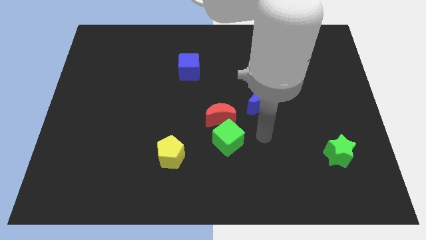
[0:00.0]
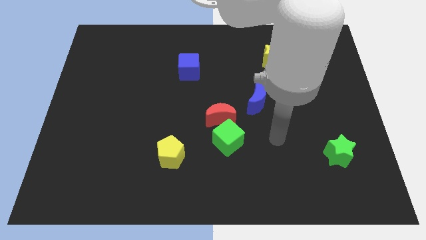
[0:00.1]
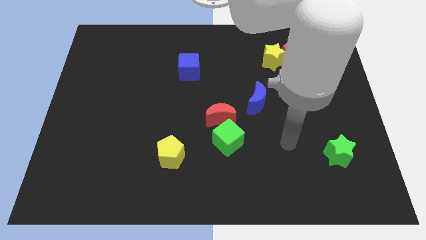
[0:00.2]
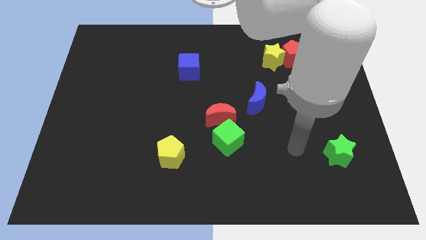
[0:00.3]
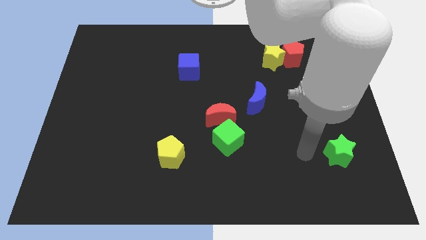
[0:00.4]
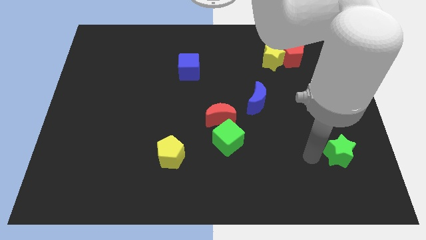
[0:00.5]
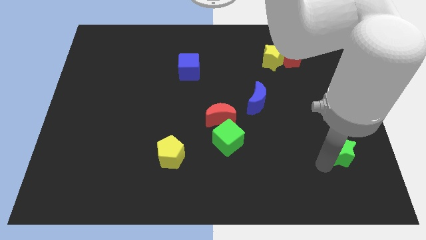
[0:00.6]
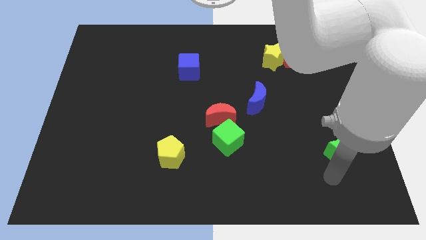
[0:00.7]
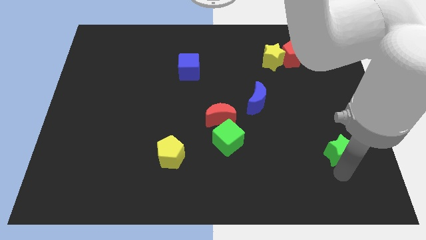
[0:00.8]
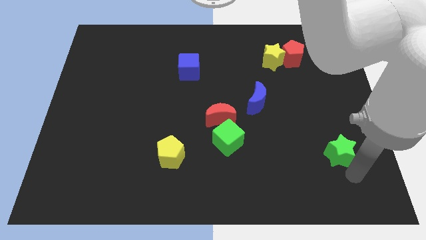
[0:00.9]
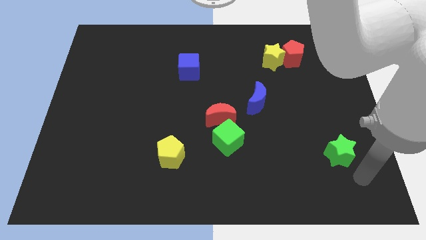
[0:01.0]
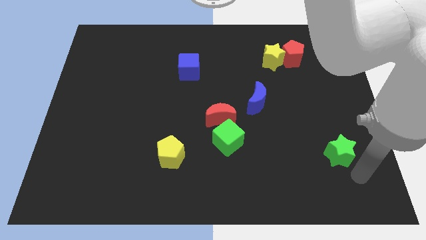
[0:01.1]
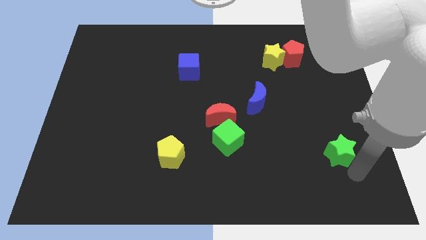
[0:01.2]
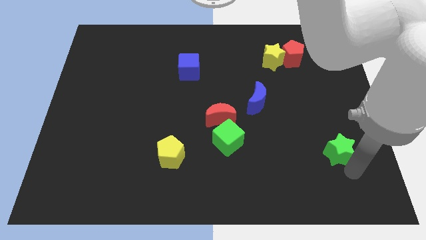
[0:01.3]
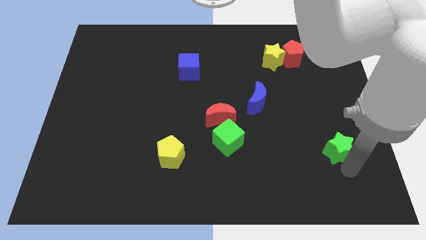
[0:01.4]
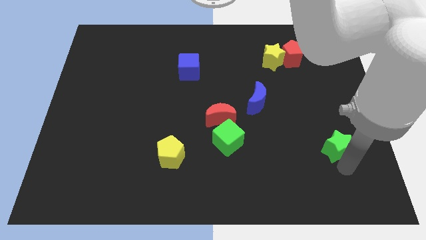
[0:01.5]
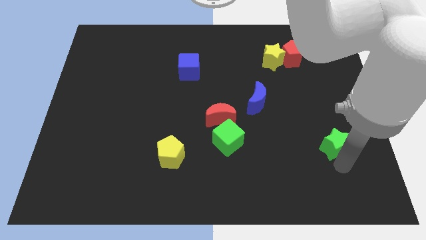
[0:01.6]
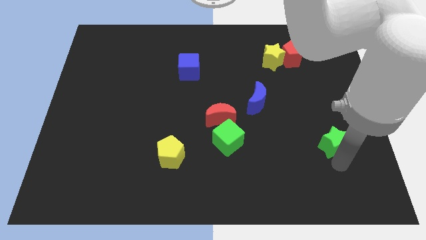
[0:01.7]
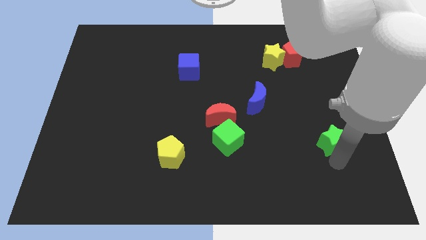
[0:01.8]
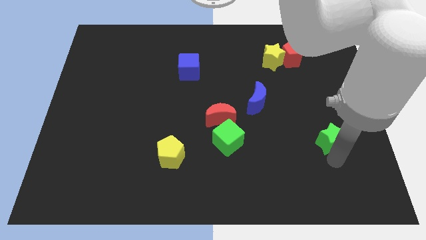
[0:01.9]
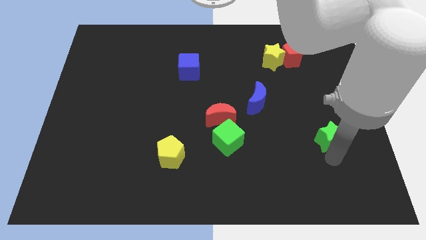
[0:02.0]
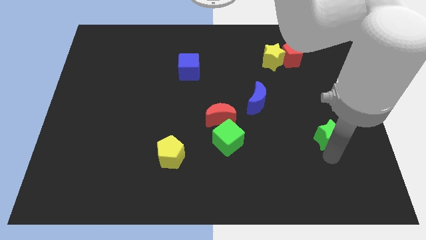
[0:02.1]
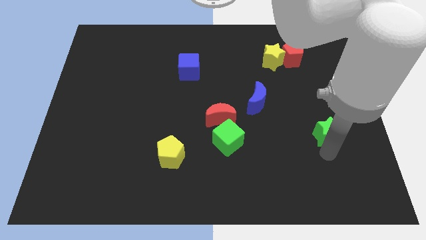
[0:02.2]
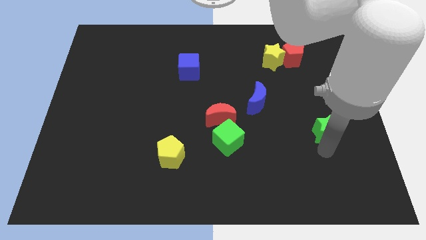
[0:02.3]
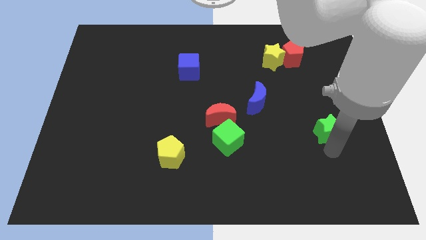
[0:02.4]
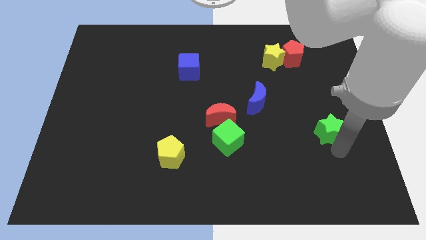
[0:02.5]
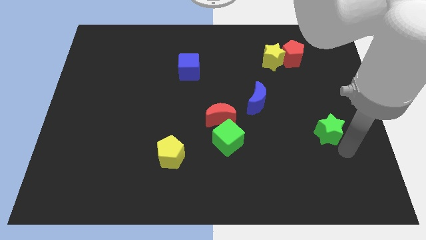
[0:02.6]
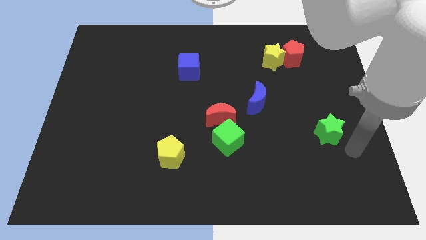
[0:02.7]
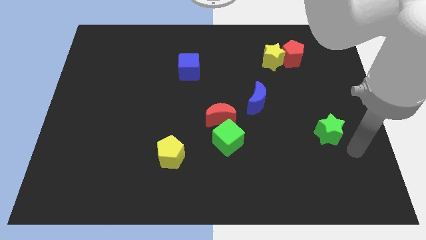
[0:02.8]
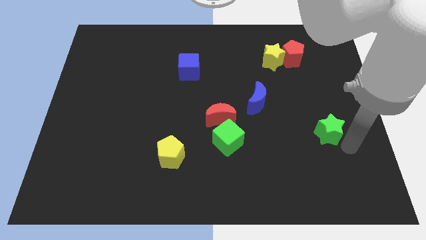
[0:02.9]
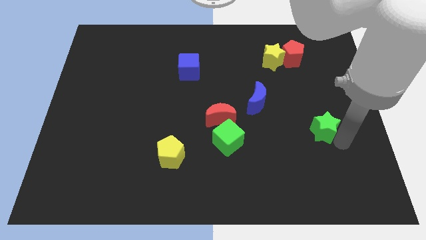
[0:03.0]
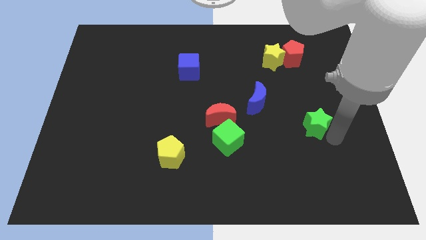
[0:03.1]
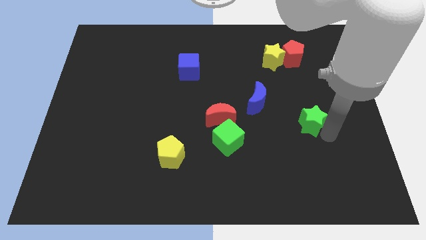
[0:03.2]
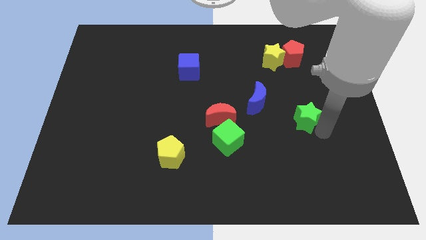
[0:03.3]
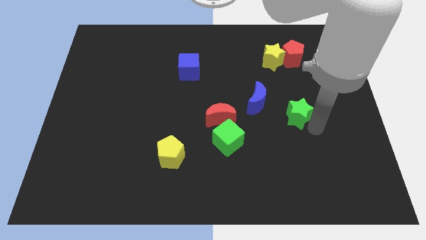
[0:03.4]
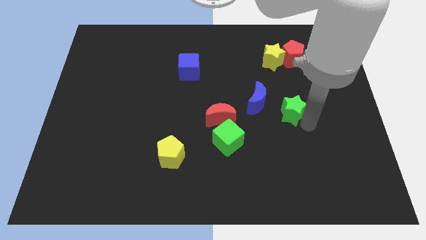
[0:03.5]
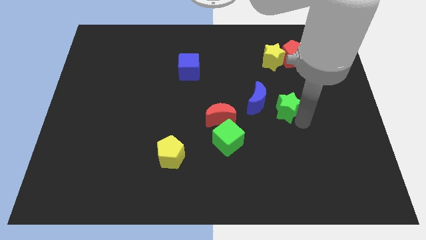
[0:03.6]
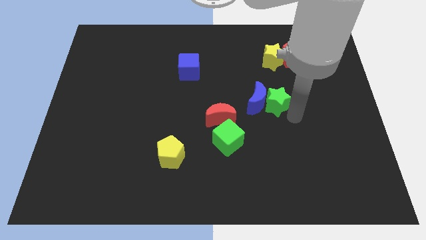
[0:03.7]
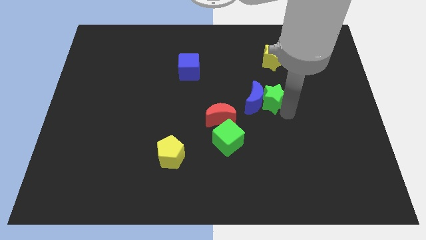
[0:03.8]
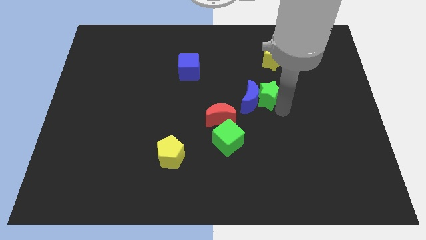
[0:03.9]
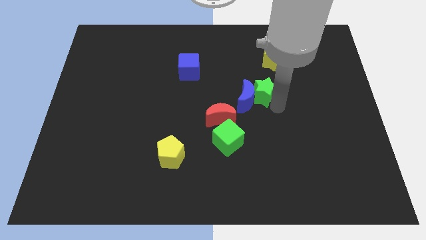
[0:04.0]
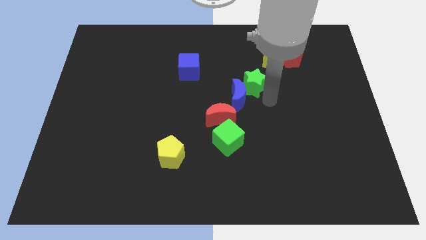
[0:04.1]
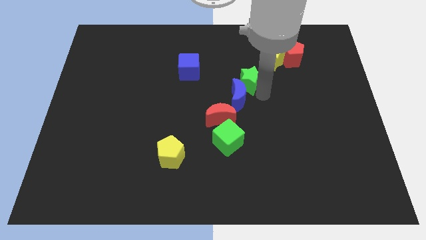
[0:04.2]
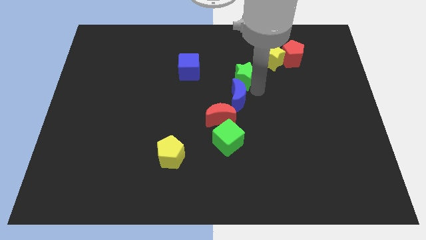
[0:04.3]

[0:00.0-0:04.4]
move the green star to the right of the blue cube

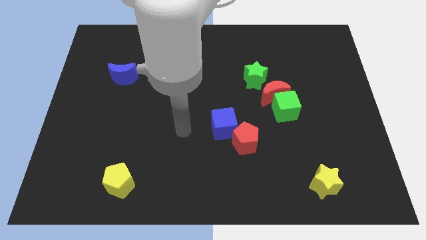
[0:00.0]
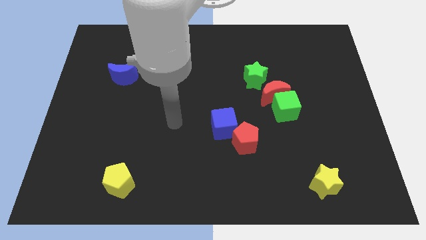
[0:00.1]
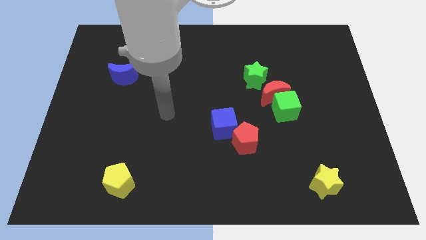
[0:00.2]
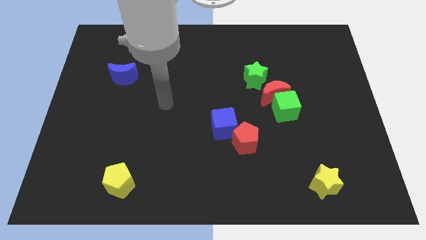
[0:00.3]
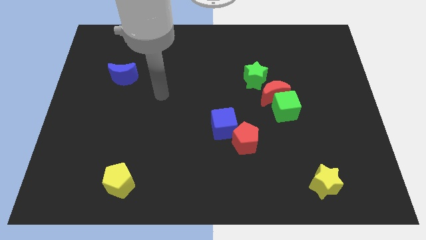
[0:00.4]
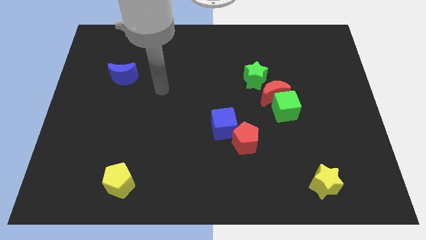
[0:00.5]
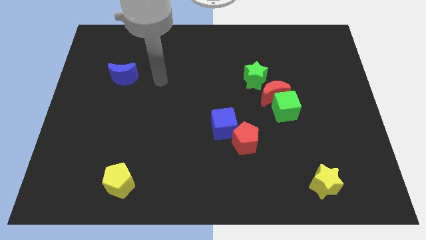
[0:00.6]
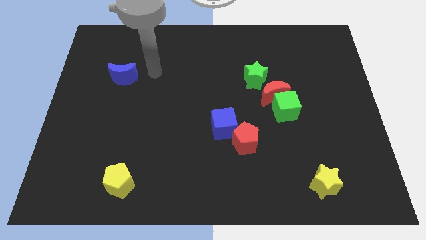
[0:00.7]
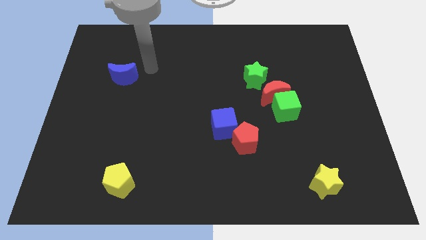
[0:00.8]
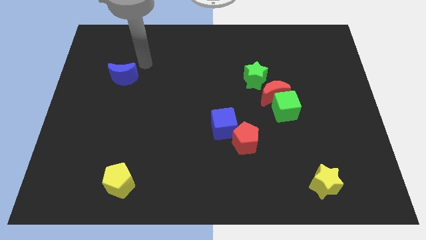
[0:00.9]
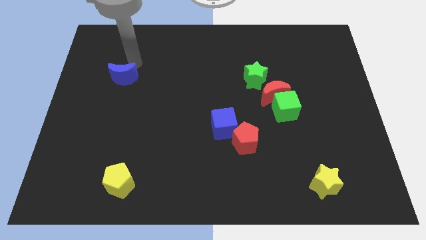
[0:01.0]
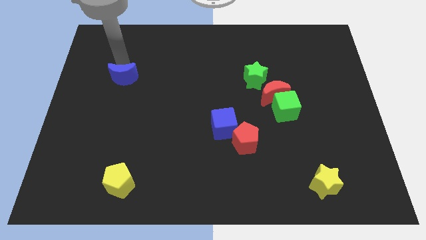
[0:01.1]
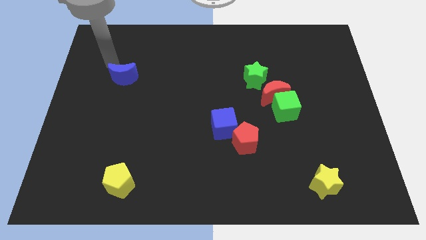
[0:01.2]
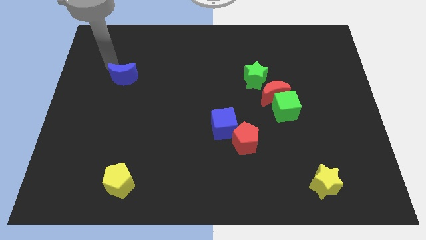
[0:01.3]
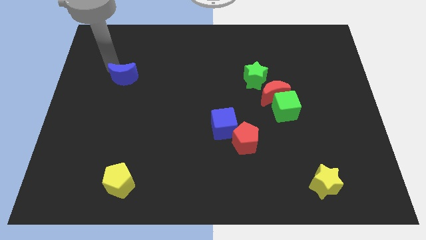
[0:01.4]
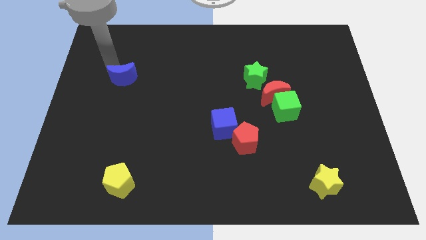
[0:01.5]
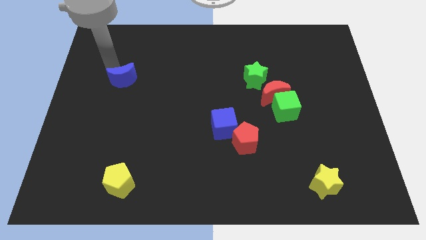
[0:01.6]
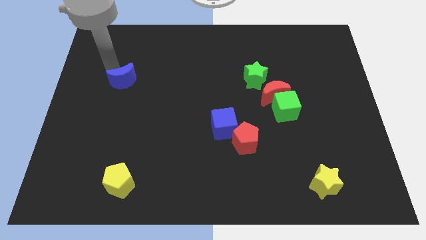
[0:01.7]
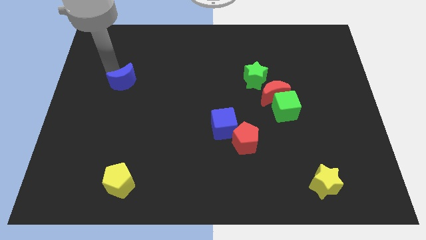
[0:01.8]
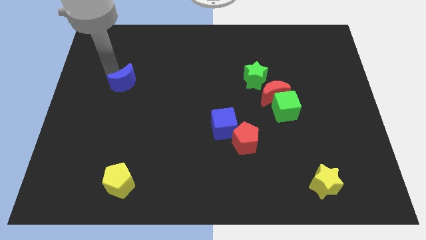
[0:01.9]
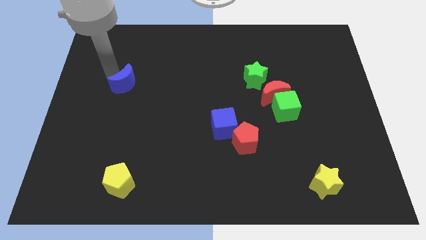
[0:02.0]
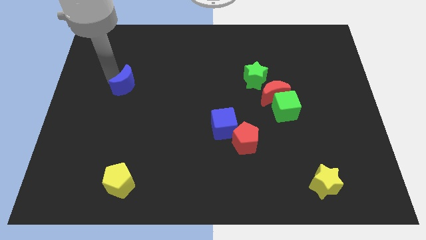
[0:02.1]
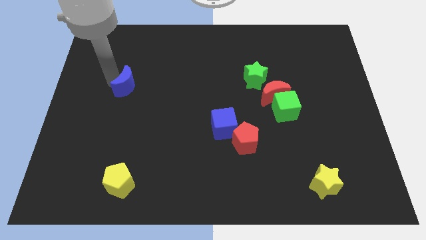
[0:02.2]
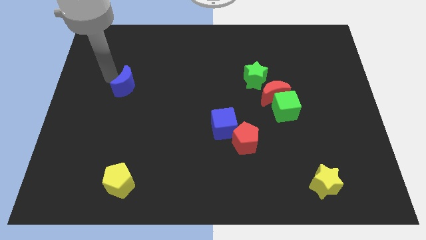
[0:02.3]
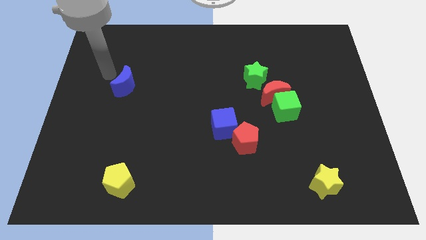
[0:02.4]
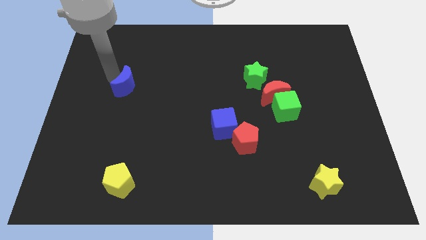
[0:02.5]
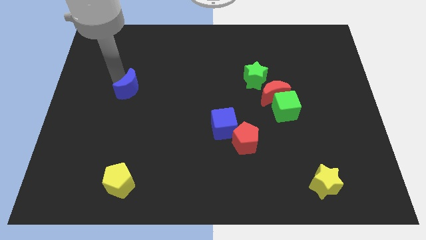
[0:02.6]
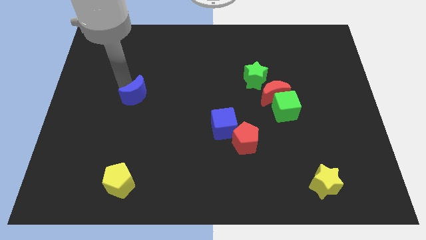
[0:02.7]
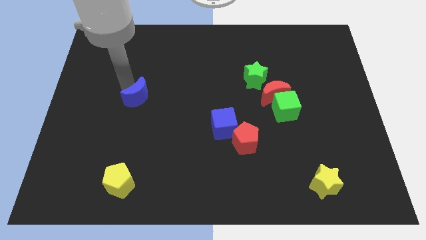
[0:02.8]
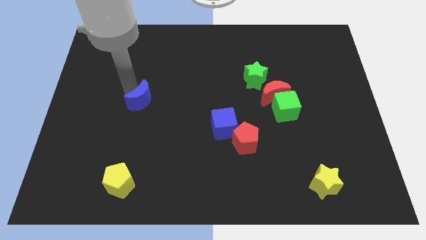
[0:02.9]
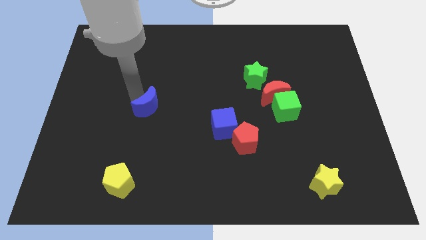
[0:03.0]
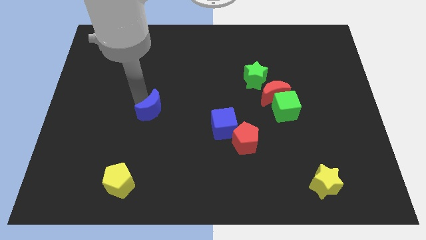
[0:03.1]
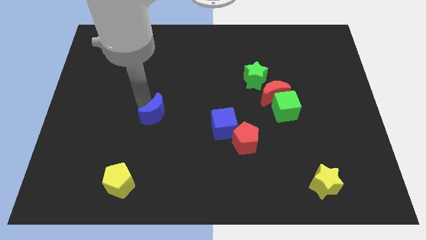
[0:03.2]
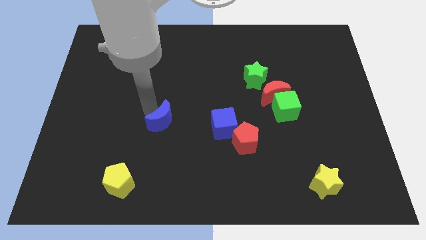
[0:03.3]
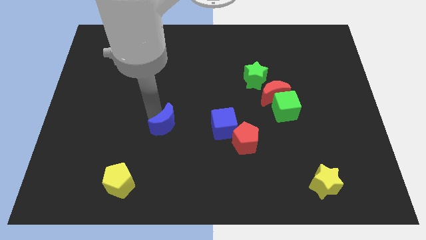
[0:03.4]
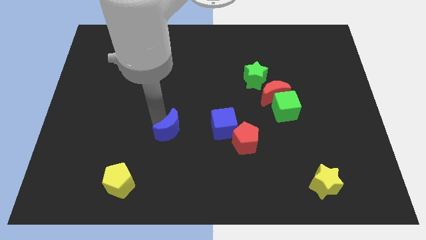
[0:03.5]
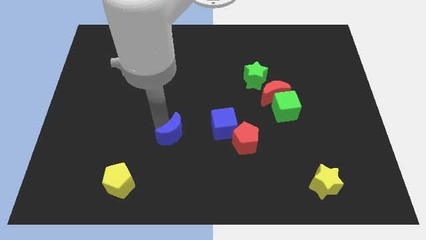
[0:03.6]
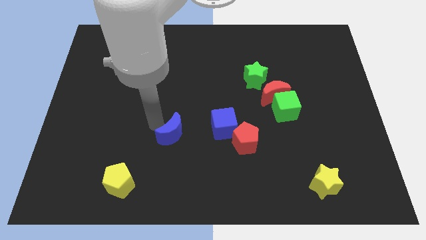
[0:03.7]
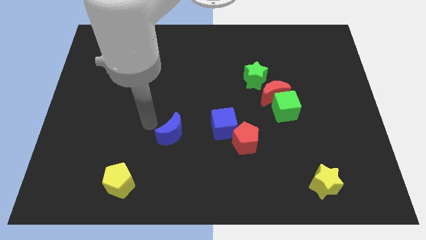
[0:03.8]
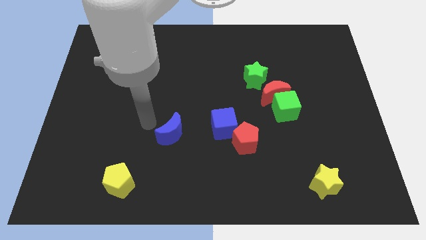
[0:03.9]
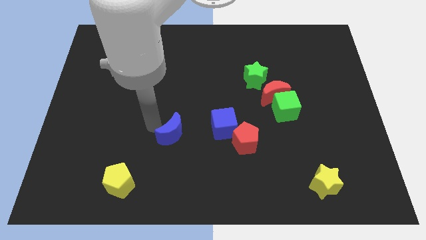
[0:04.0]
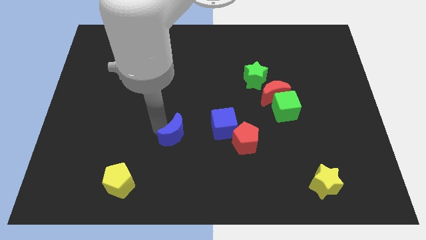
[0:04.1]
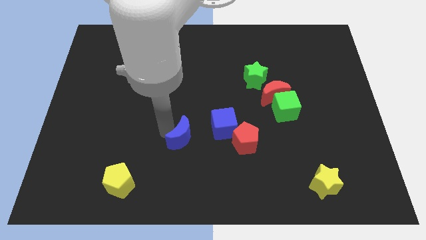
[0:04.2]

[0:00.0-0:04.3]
push the blue moon to the bottom left of the blue cube
